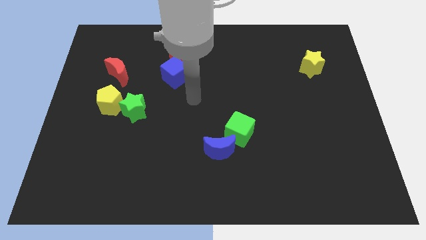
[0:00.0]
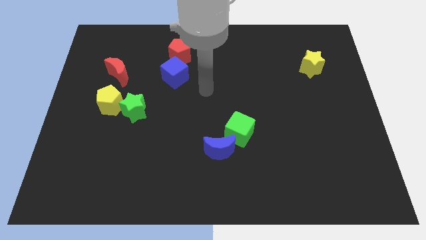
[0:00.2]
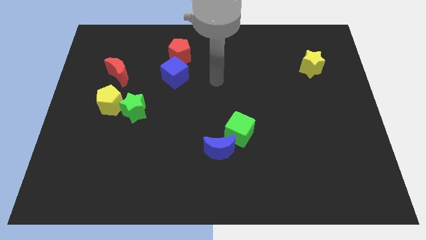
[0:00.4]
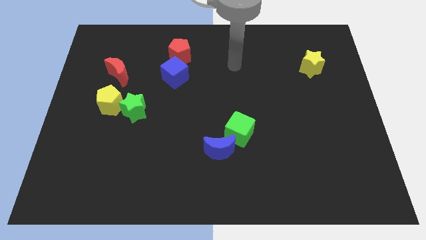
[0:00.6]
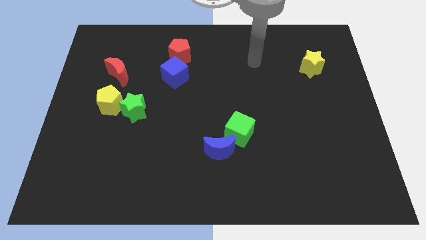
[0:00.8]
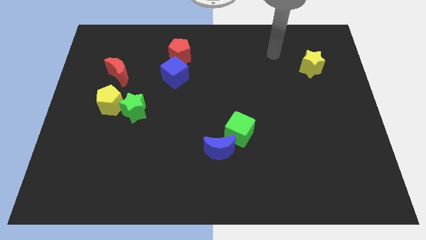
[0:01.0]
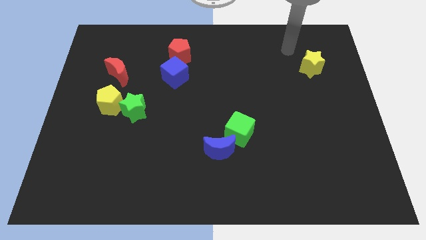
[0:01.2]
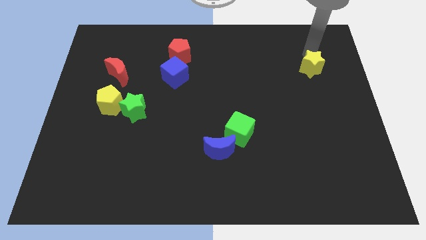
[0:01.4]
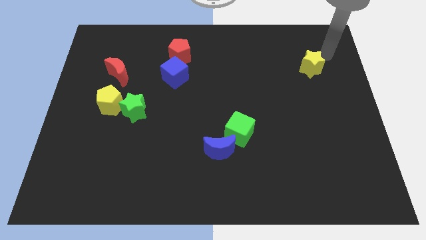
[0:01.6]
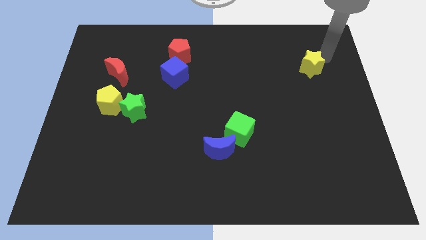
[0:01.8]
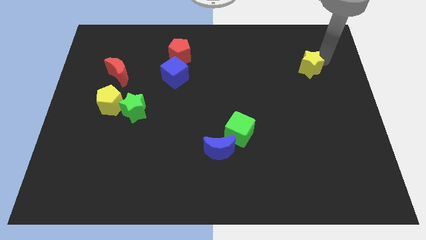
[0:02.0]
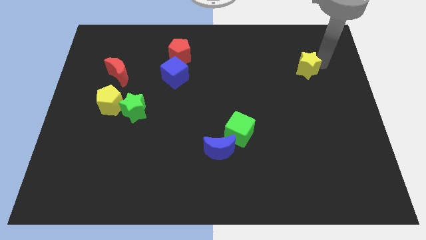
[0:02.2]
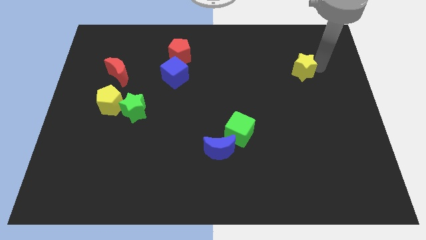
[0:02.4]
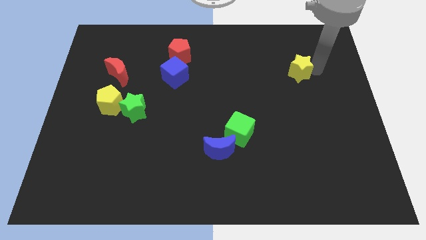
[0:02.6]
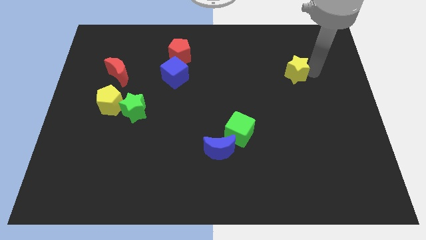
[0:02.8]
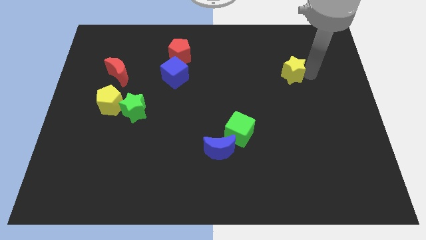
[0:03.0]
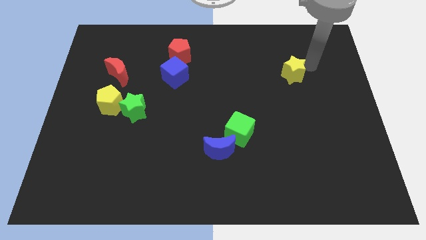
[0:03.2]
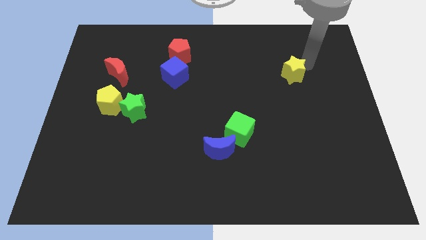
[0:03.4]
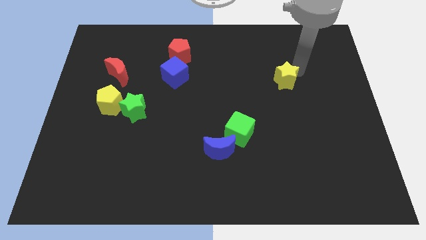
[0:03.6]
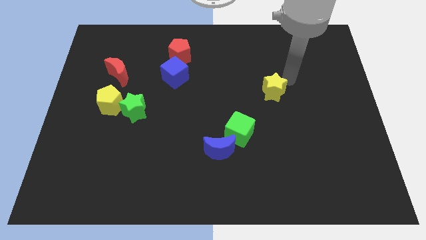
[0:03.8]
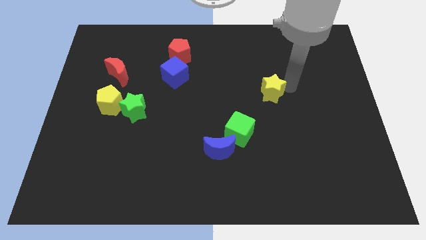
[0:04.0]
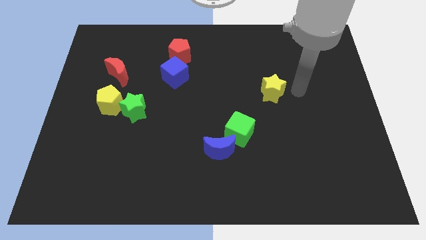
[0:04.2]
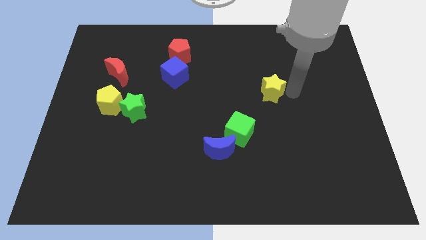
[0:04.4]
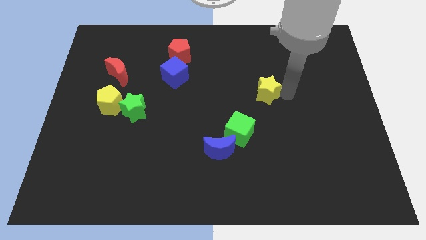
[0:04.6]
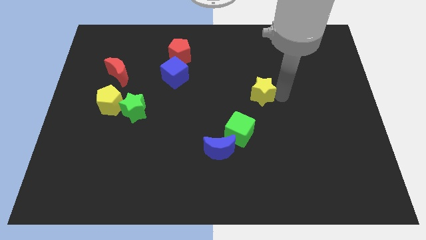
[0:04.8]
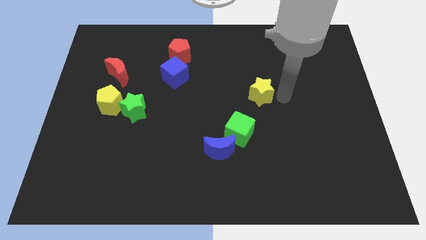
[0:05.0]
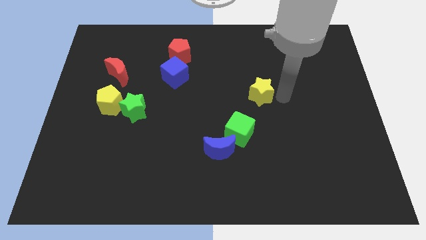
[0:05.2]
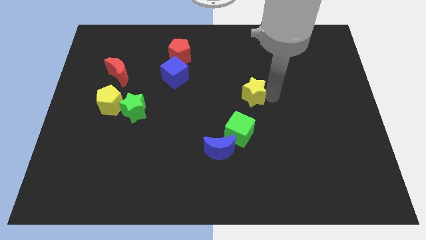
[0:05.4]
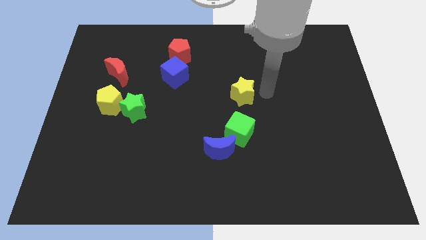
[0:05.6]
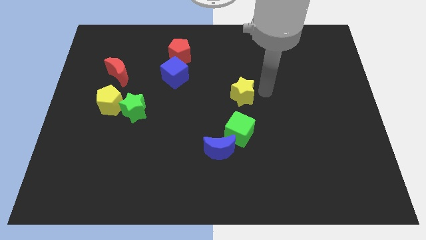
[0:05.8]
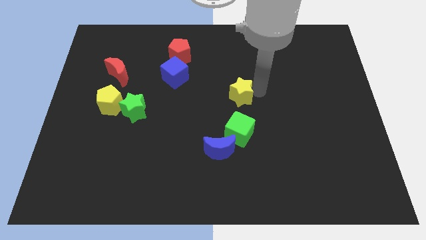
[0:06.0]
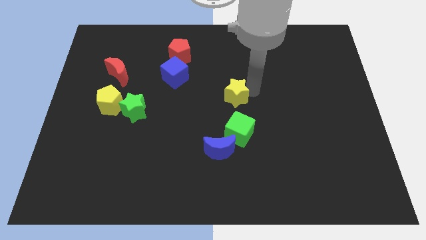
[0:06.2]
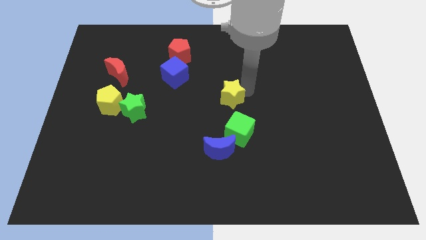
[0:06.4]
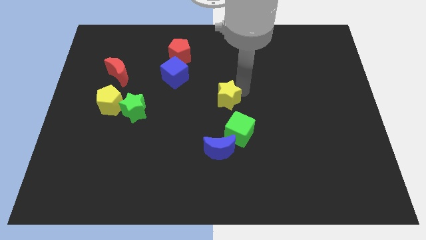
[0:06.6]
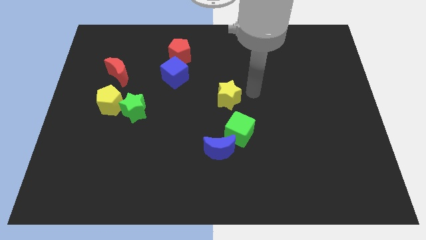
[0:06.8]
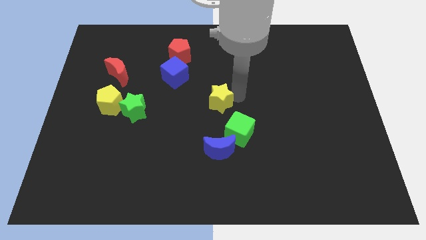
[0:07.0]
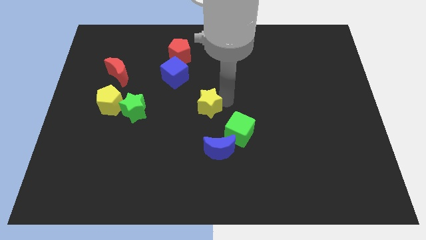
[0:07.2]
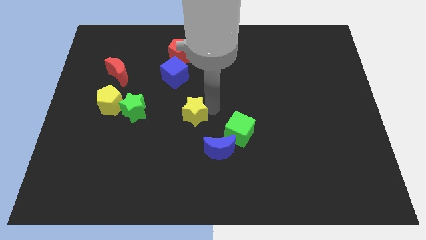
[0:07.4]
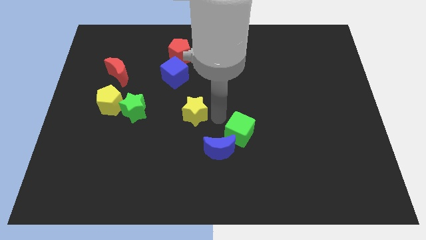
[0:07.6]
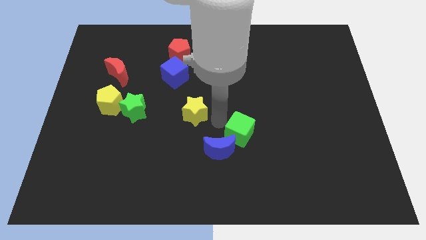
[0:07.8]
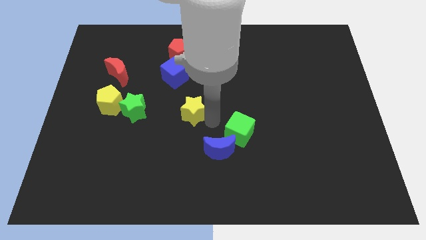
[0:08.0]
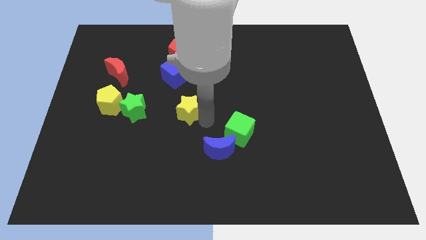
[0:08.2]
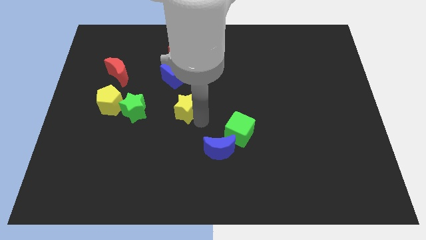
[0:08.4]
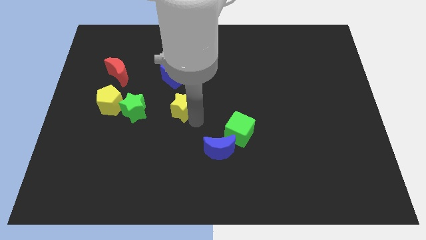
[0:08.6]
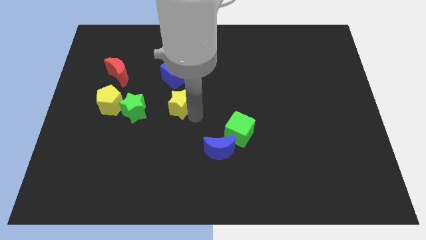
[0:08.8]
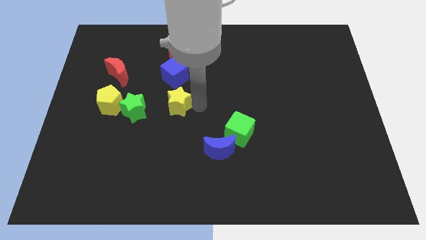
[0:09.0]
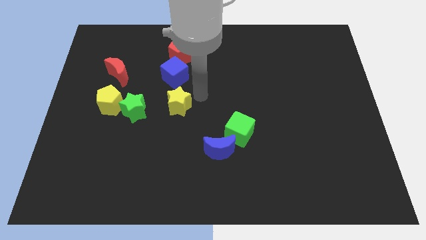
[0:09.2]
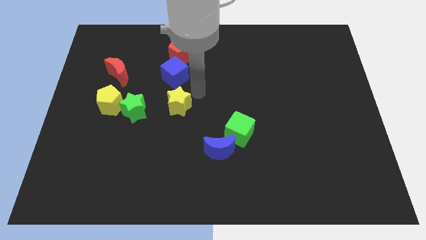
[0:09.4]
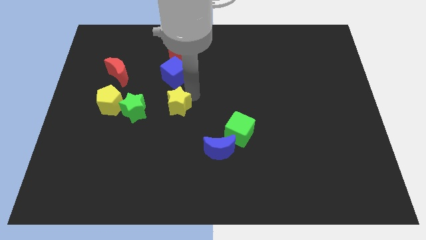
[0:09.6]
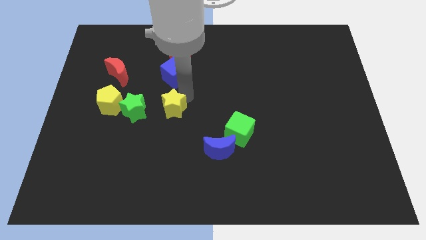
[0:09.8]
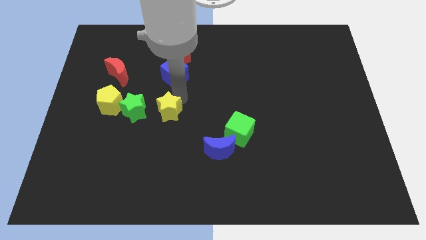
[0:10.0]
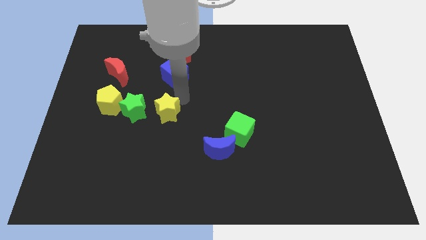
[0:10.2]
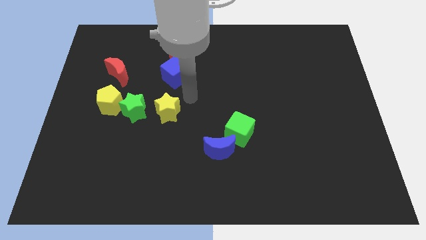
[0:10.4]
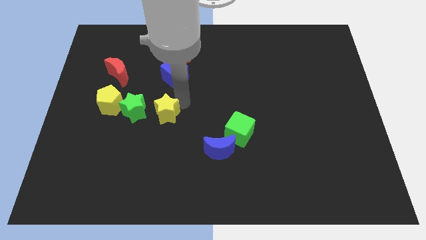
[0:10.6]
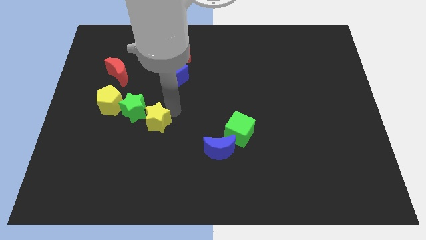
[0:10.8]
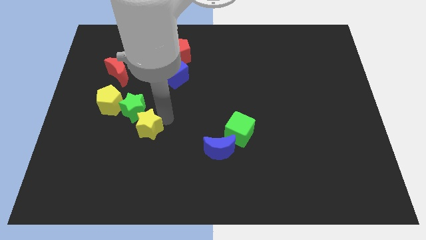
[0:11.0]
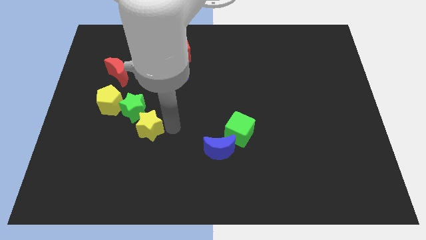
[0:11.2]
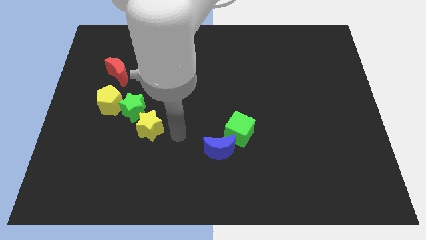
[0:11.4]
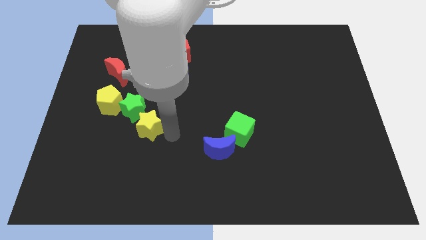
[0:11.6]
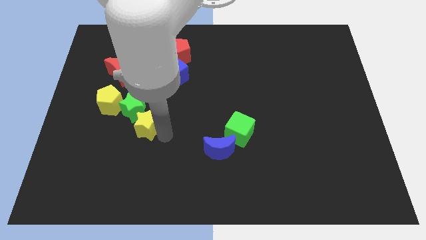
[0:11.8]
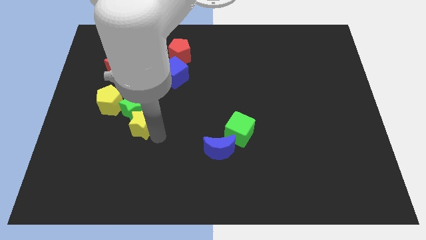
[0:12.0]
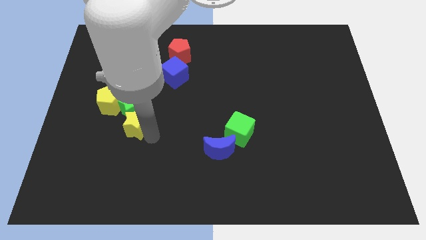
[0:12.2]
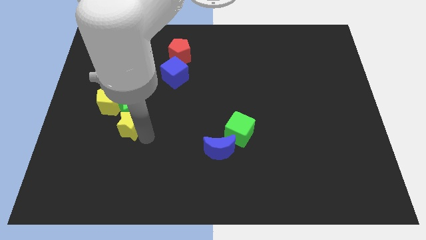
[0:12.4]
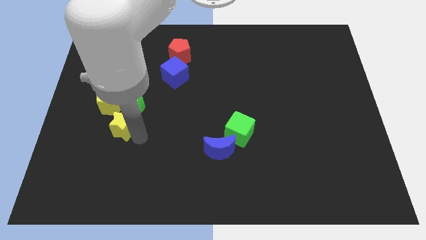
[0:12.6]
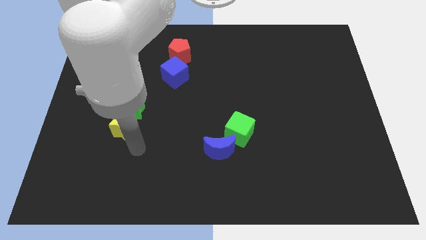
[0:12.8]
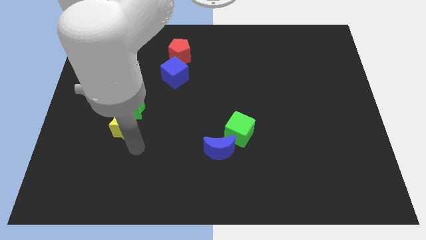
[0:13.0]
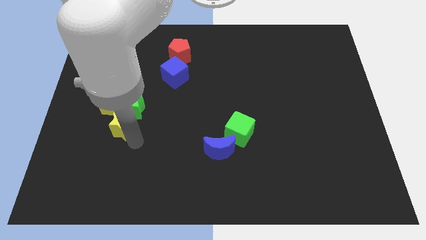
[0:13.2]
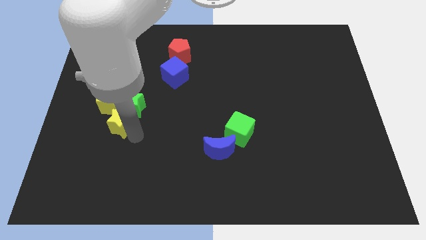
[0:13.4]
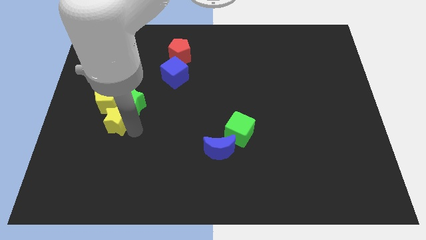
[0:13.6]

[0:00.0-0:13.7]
put the yellow star below the red moon

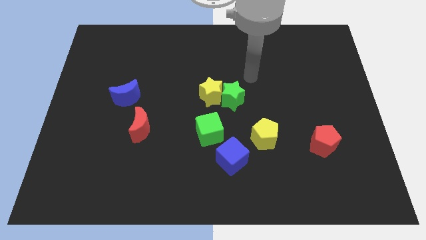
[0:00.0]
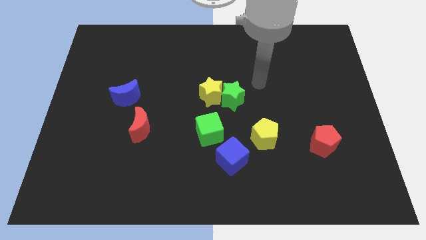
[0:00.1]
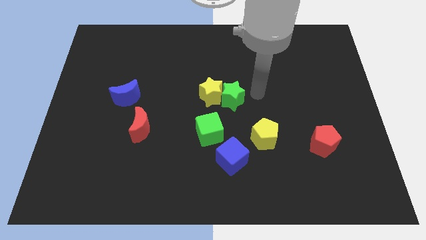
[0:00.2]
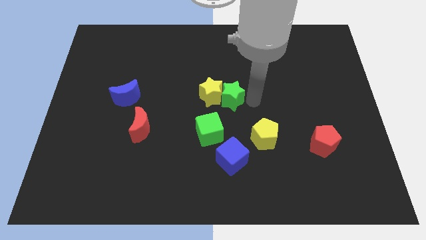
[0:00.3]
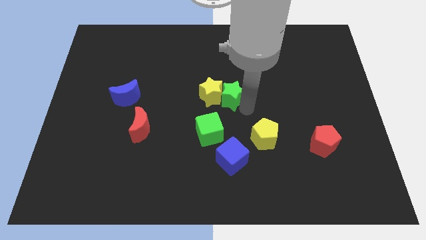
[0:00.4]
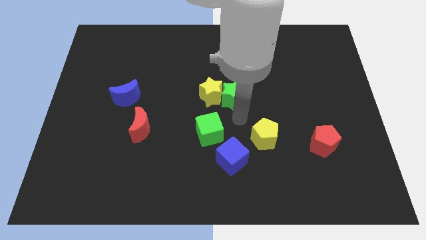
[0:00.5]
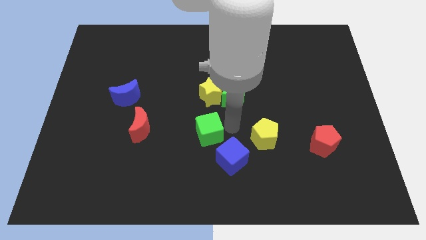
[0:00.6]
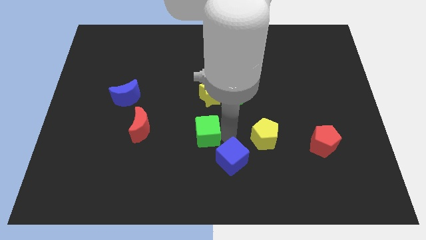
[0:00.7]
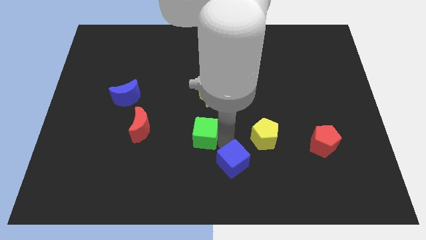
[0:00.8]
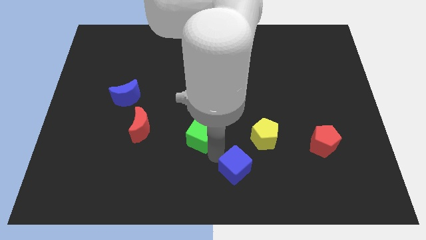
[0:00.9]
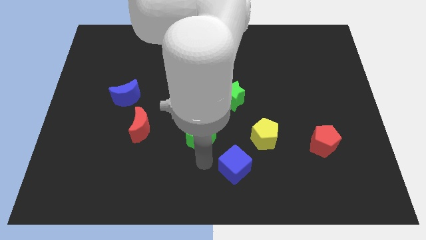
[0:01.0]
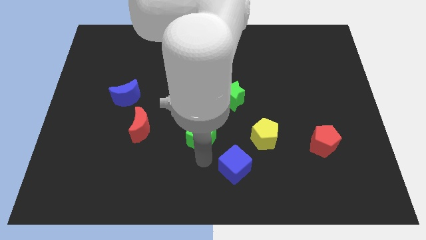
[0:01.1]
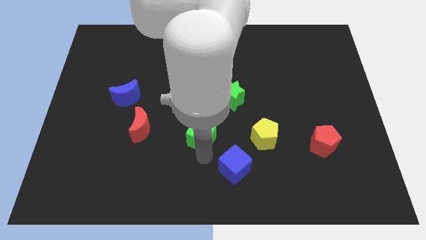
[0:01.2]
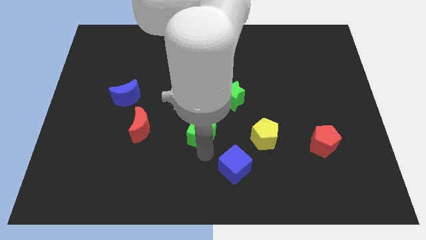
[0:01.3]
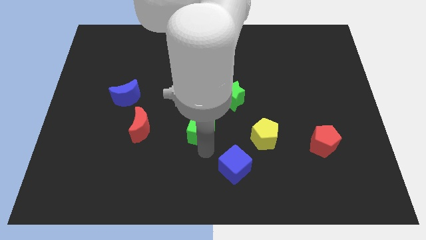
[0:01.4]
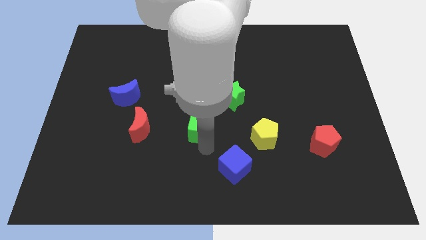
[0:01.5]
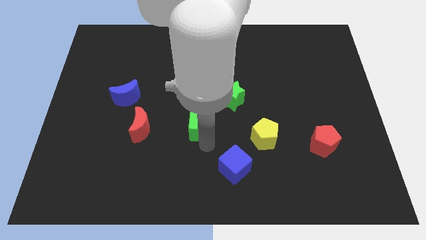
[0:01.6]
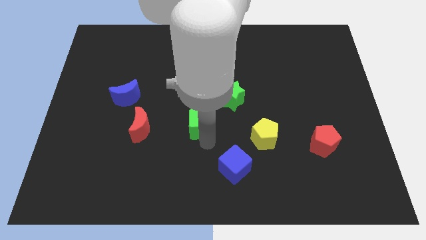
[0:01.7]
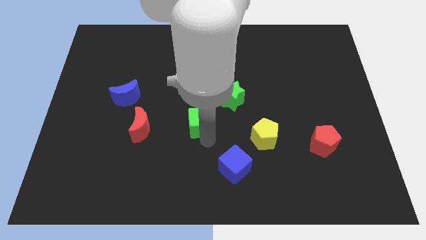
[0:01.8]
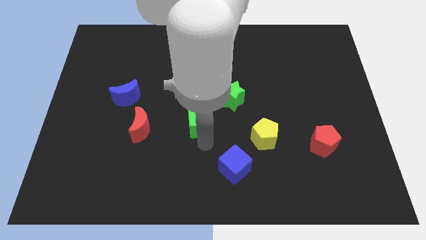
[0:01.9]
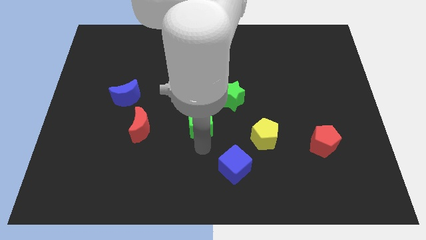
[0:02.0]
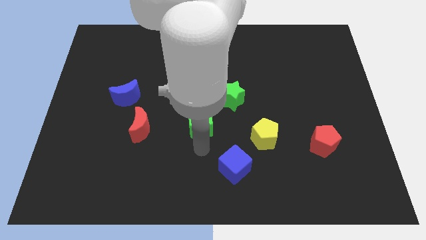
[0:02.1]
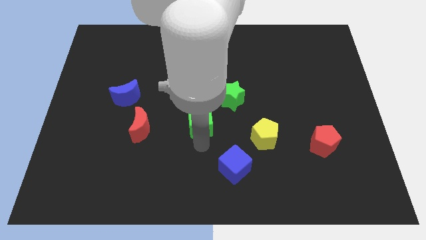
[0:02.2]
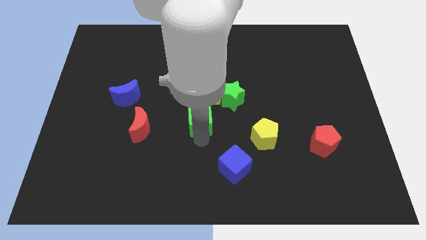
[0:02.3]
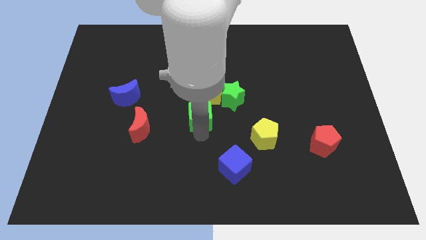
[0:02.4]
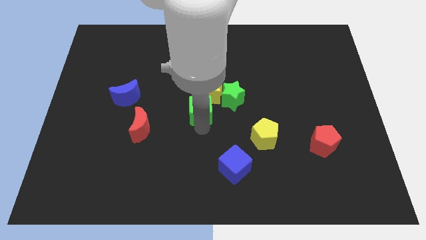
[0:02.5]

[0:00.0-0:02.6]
move the green cube to the left of the green star
